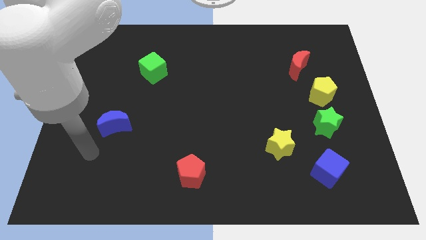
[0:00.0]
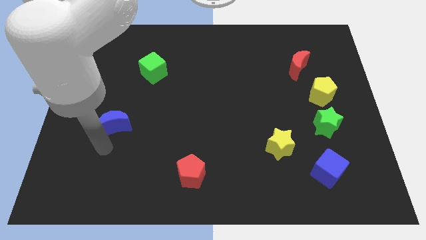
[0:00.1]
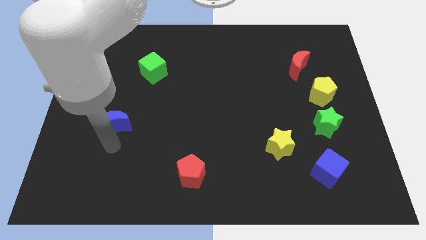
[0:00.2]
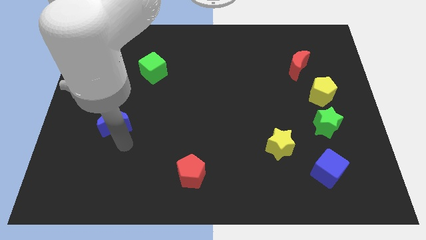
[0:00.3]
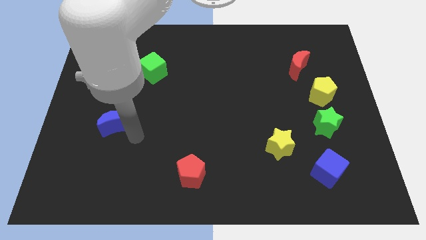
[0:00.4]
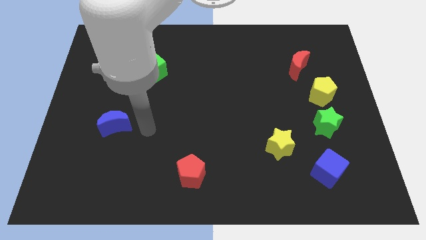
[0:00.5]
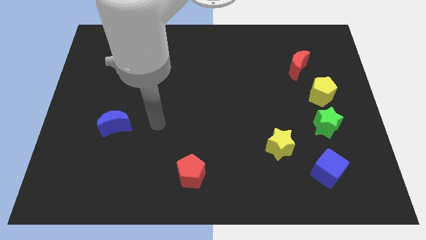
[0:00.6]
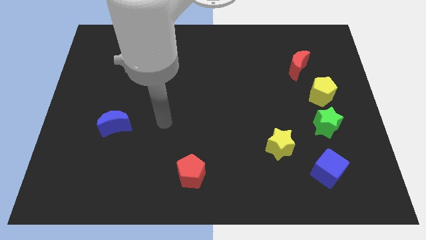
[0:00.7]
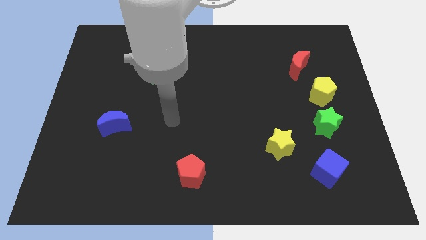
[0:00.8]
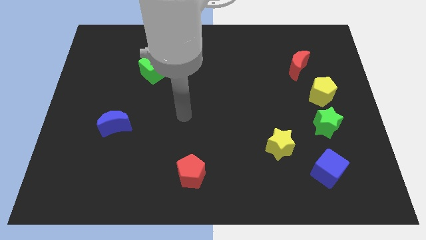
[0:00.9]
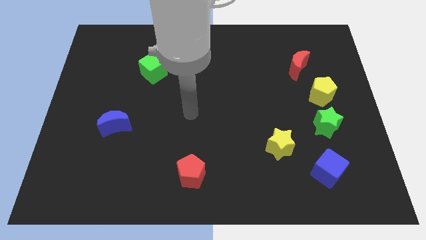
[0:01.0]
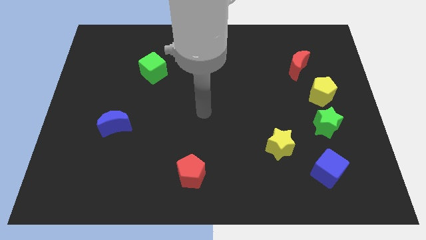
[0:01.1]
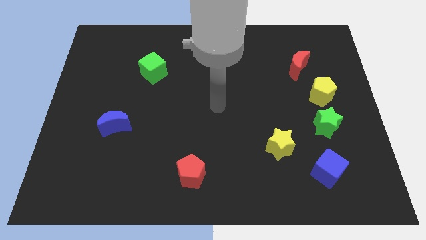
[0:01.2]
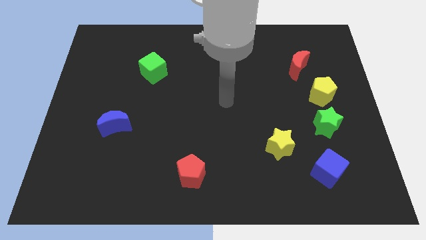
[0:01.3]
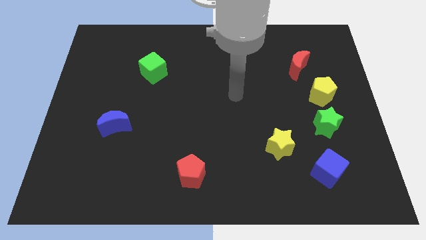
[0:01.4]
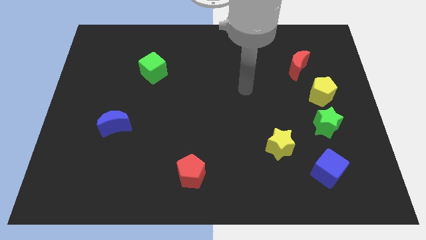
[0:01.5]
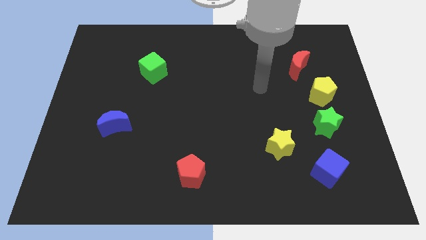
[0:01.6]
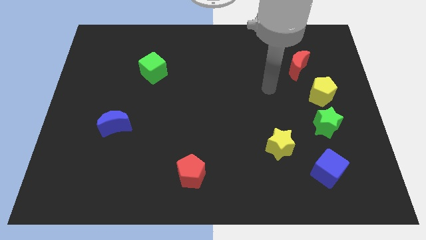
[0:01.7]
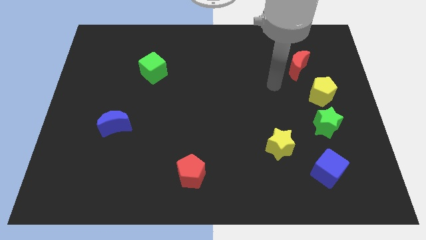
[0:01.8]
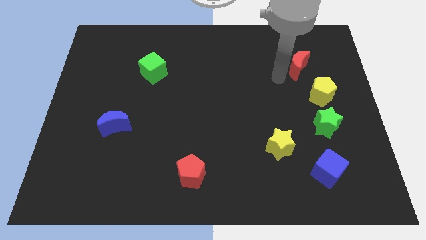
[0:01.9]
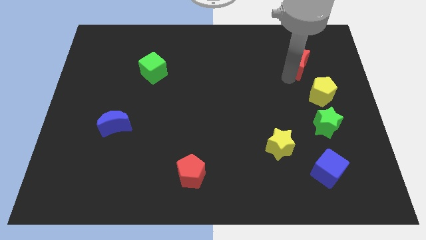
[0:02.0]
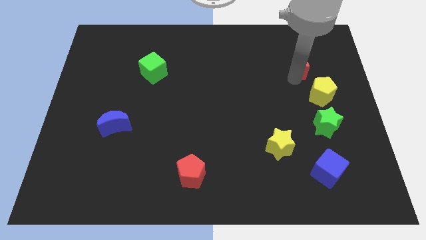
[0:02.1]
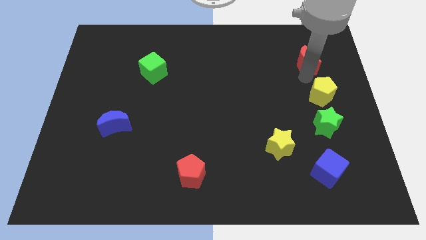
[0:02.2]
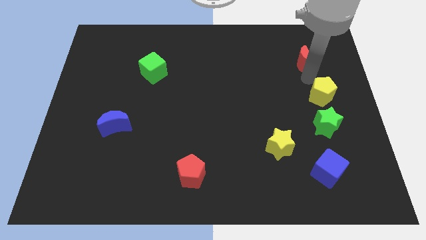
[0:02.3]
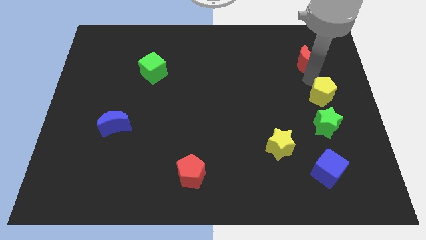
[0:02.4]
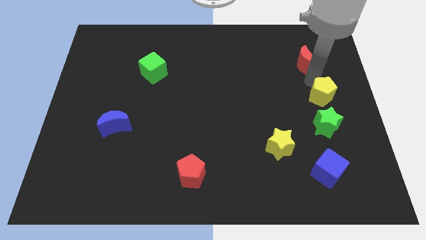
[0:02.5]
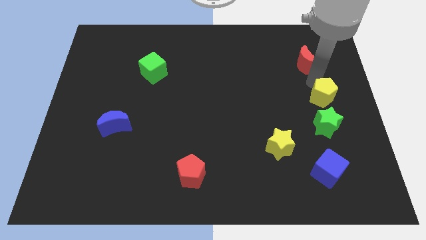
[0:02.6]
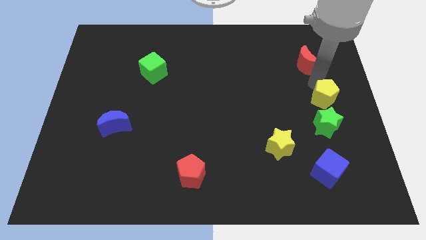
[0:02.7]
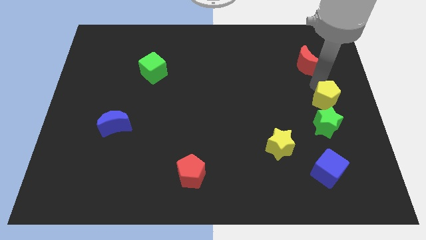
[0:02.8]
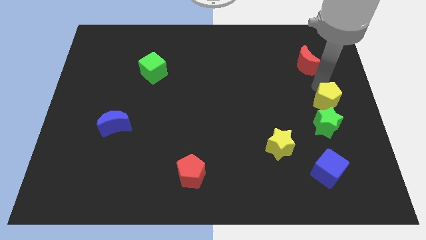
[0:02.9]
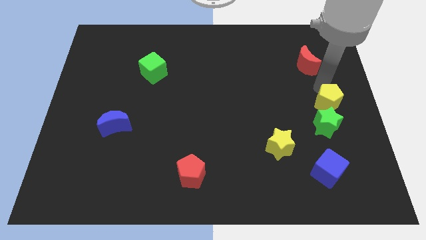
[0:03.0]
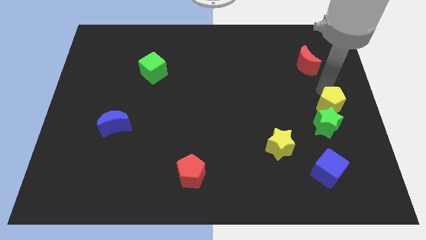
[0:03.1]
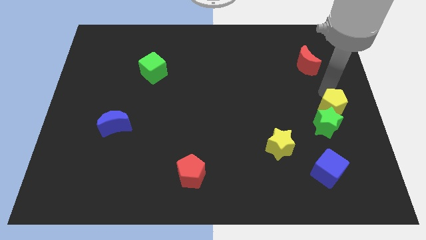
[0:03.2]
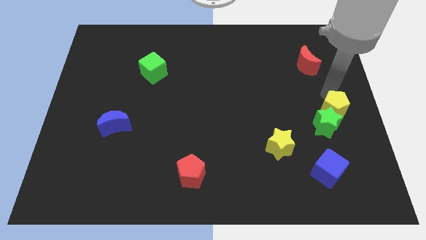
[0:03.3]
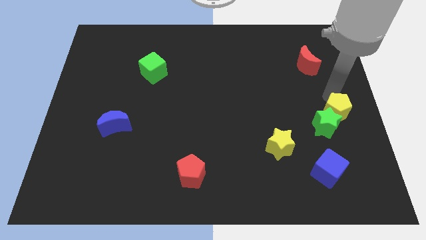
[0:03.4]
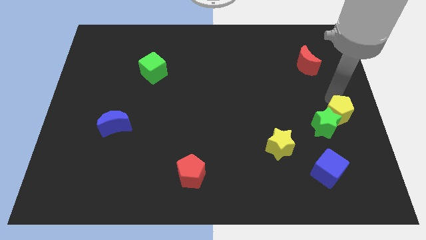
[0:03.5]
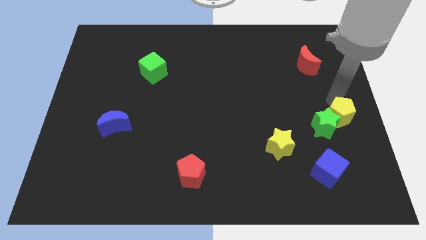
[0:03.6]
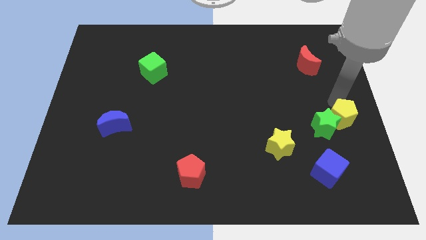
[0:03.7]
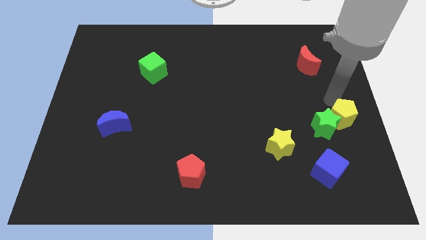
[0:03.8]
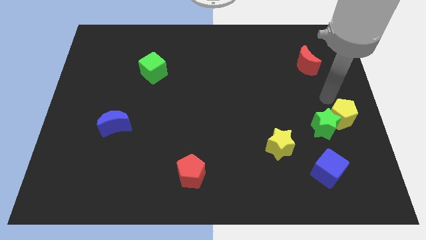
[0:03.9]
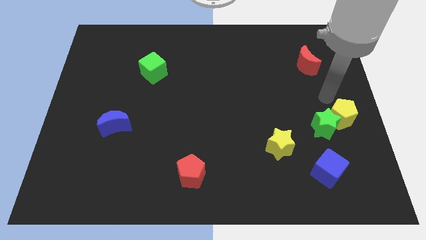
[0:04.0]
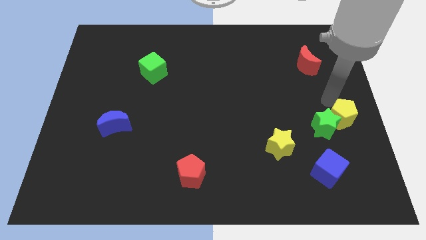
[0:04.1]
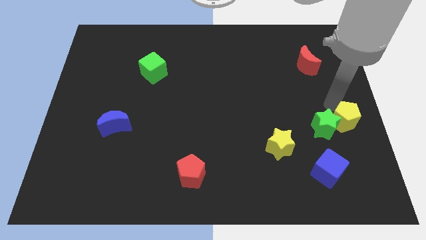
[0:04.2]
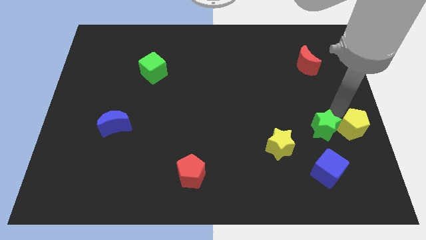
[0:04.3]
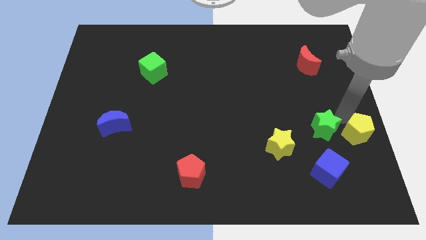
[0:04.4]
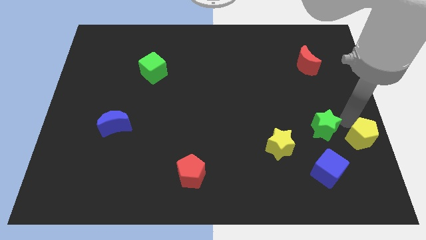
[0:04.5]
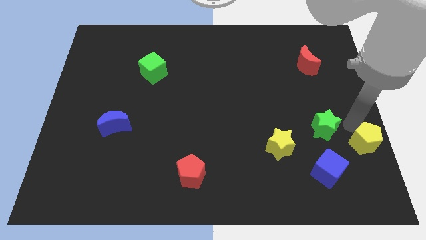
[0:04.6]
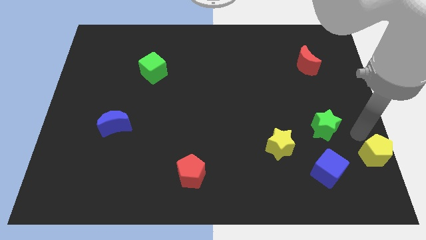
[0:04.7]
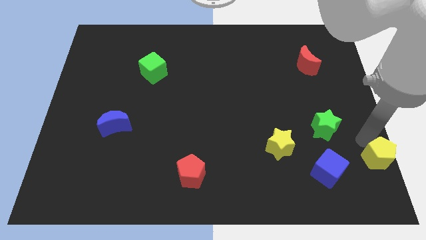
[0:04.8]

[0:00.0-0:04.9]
slide the yellow pentagon to the bottom right

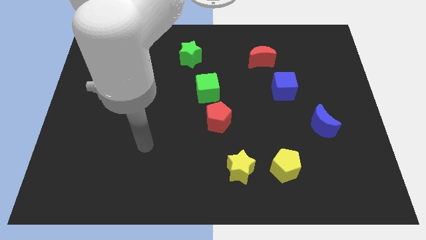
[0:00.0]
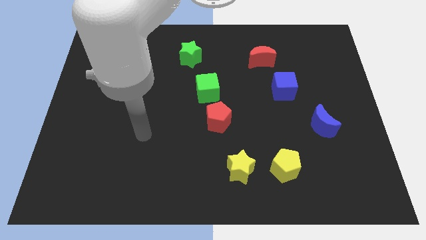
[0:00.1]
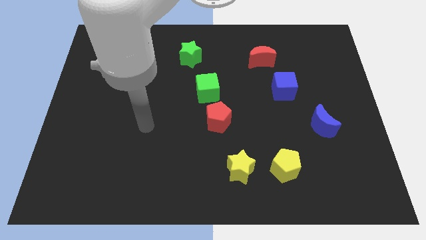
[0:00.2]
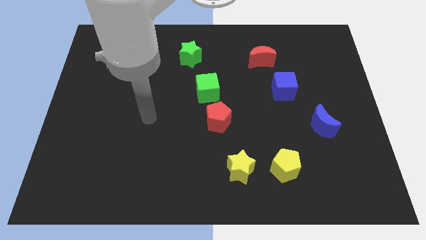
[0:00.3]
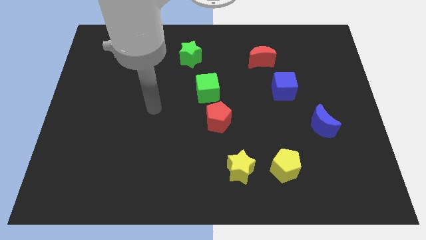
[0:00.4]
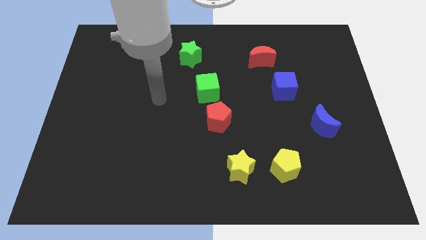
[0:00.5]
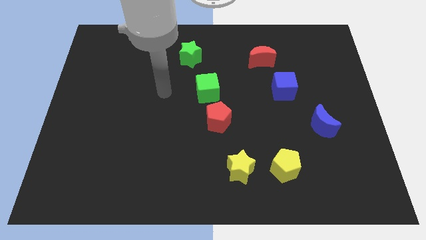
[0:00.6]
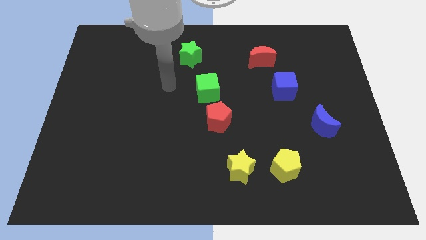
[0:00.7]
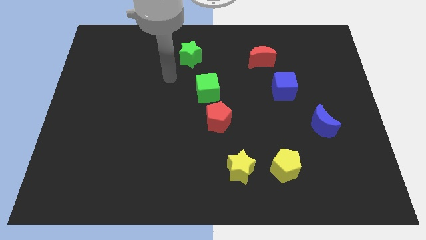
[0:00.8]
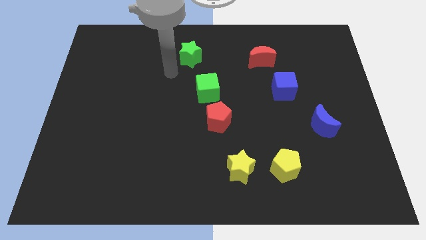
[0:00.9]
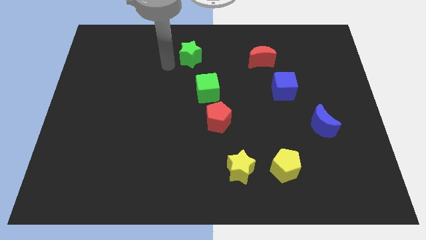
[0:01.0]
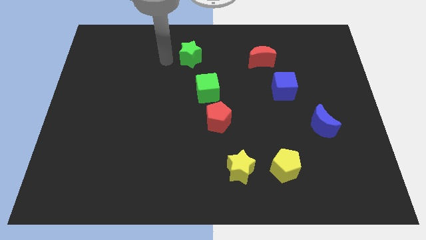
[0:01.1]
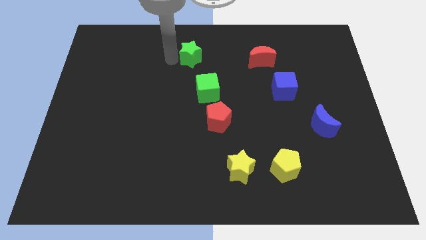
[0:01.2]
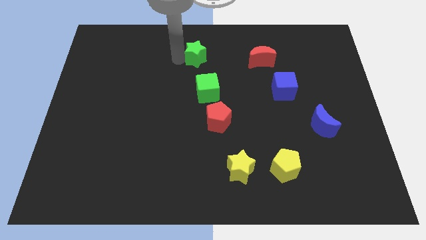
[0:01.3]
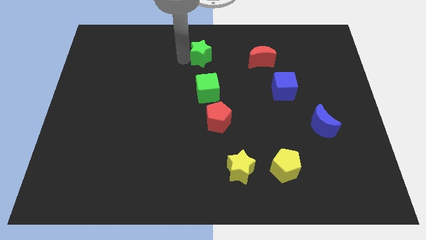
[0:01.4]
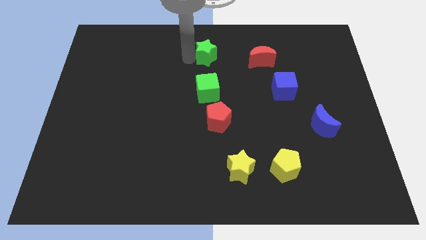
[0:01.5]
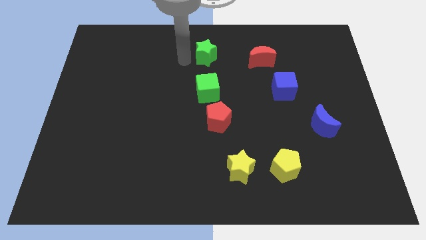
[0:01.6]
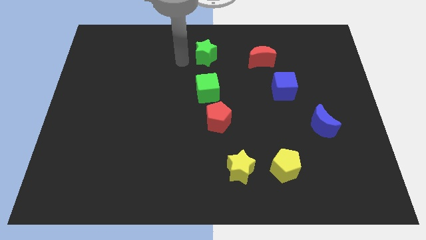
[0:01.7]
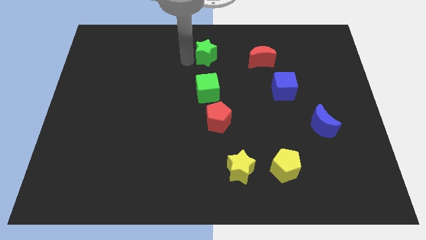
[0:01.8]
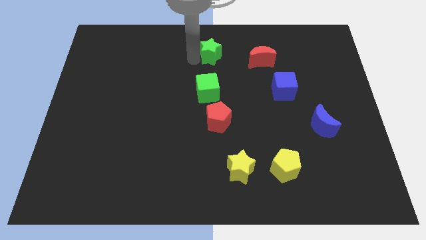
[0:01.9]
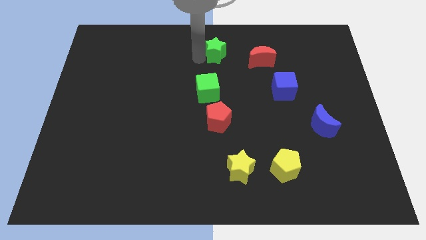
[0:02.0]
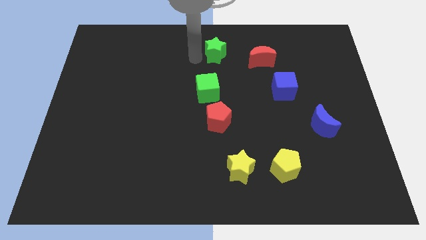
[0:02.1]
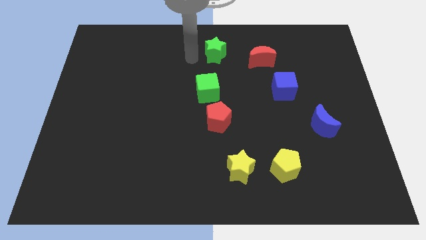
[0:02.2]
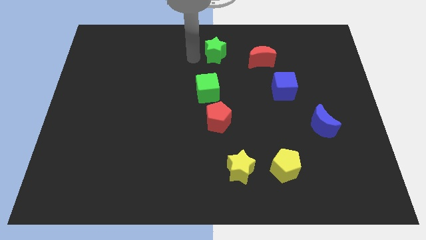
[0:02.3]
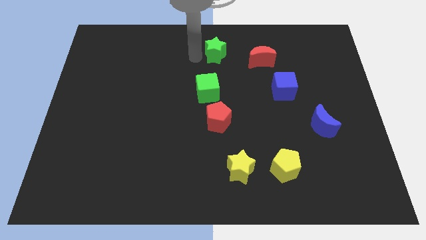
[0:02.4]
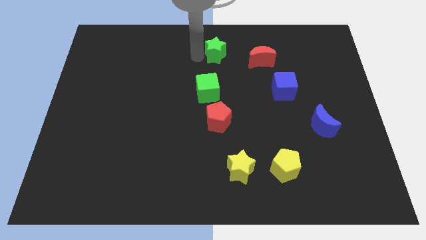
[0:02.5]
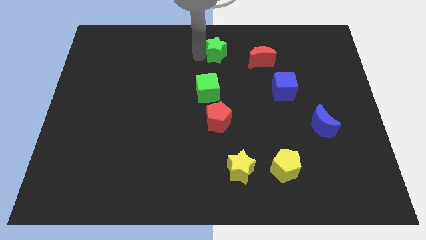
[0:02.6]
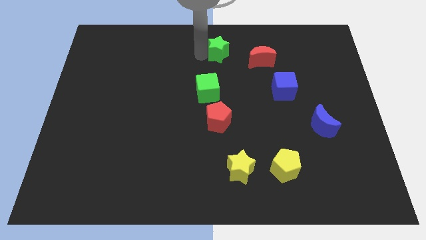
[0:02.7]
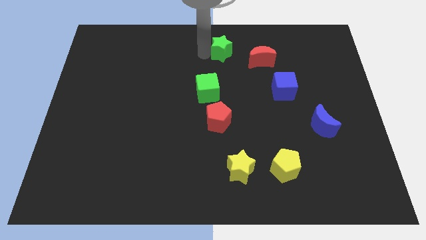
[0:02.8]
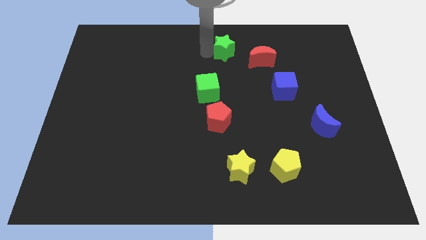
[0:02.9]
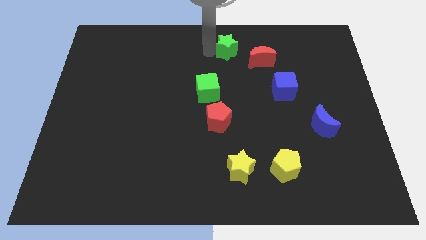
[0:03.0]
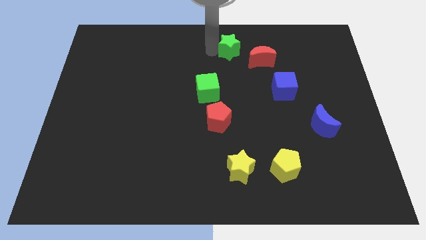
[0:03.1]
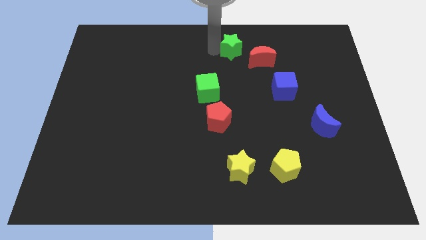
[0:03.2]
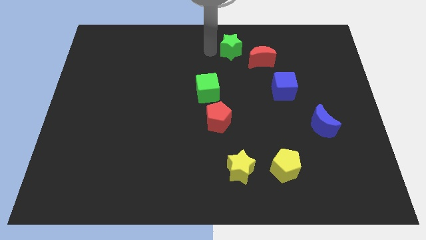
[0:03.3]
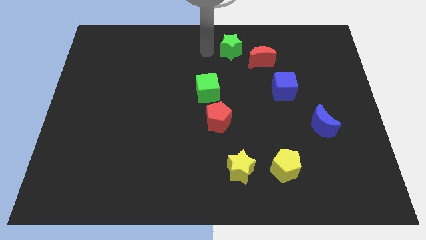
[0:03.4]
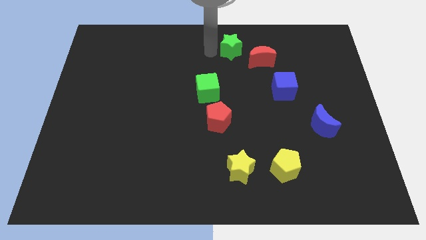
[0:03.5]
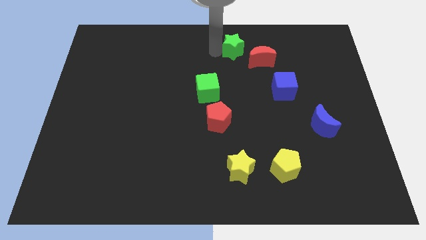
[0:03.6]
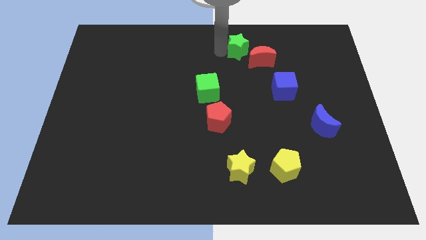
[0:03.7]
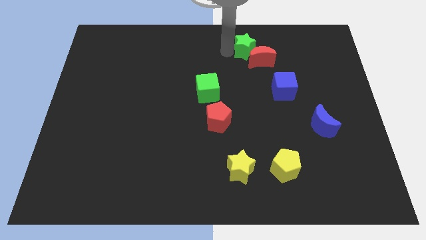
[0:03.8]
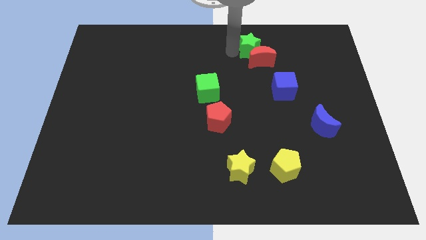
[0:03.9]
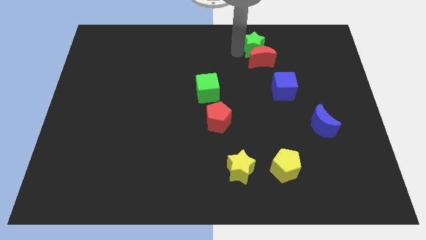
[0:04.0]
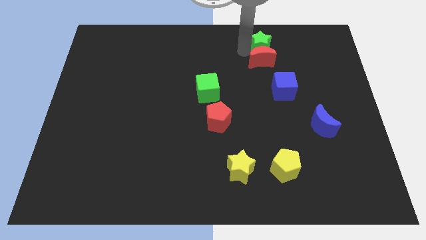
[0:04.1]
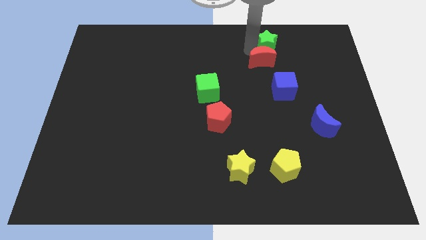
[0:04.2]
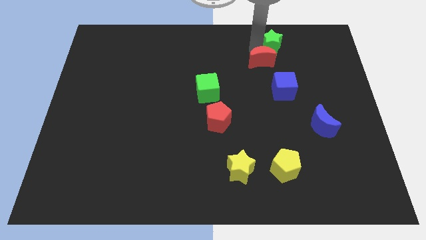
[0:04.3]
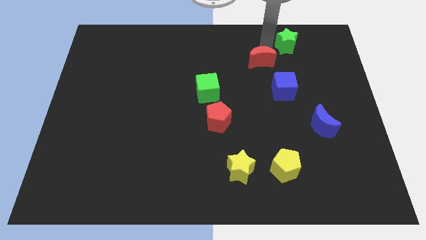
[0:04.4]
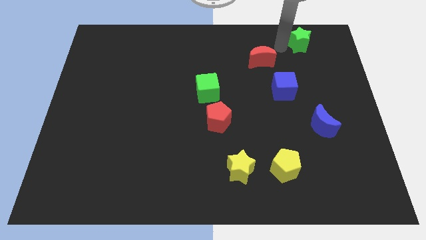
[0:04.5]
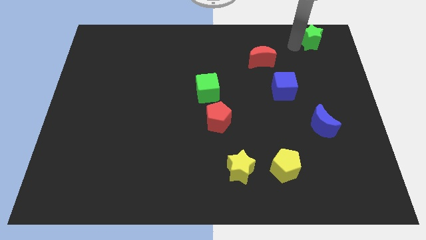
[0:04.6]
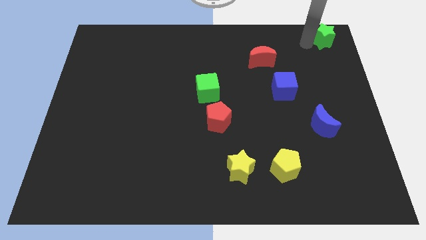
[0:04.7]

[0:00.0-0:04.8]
push the green star to the upper right corner
